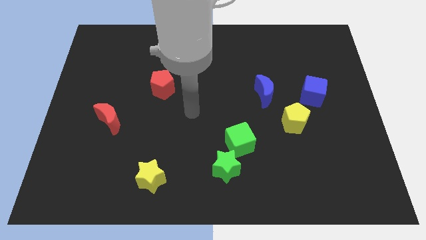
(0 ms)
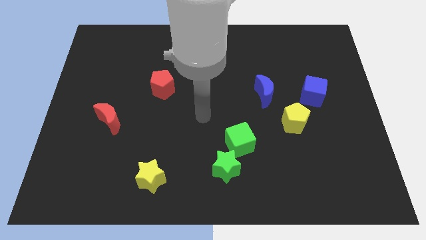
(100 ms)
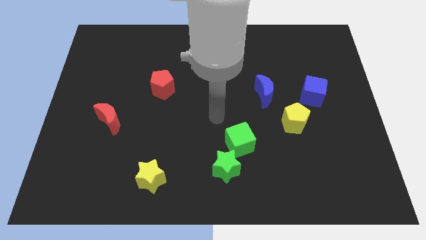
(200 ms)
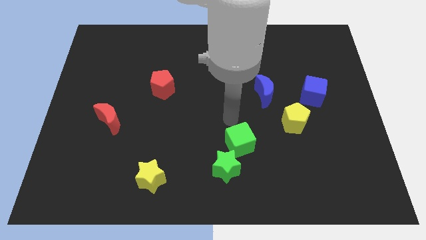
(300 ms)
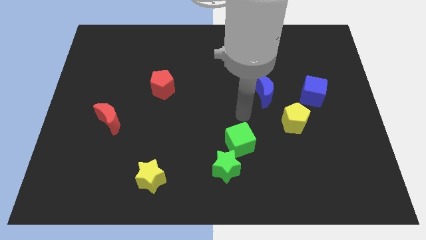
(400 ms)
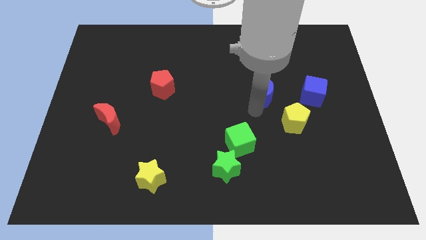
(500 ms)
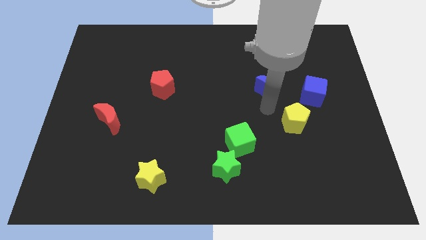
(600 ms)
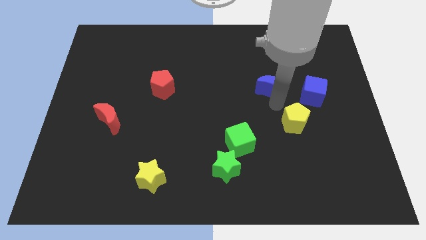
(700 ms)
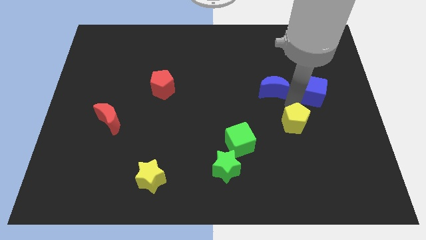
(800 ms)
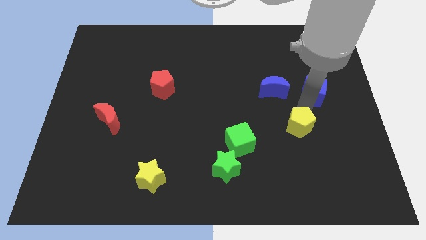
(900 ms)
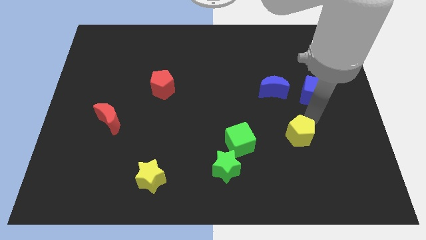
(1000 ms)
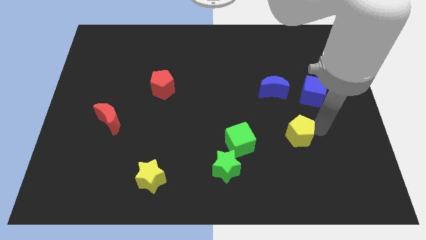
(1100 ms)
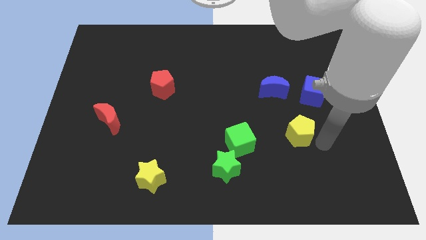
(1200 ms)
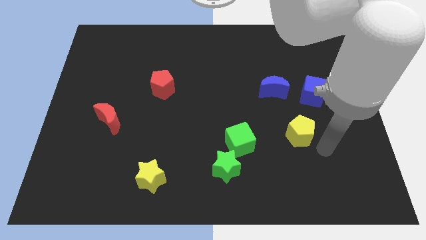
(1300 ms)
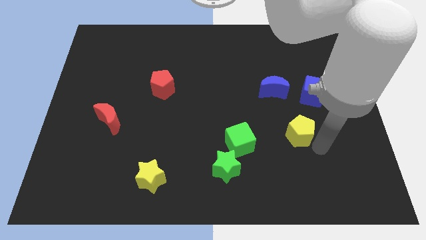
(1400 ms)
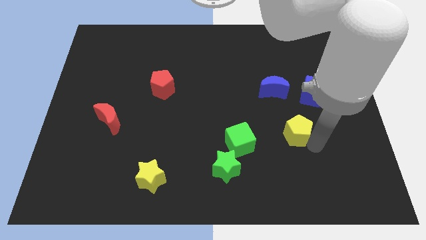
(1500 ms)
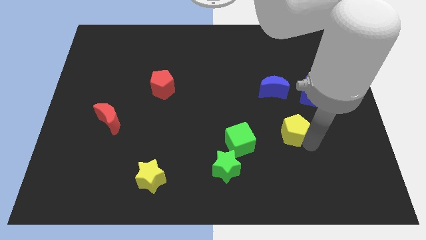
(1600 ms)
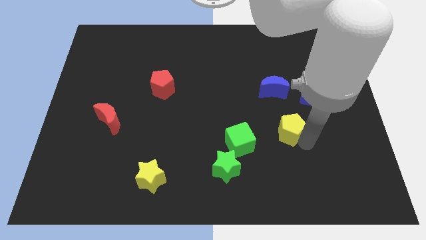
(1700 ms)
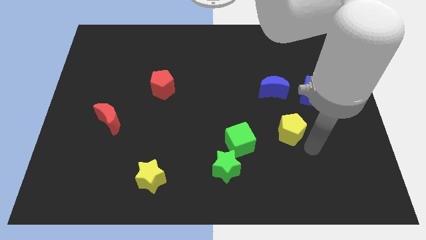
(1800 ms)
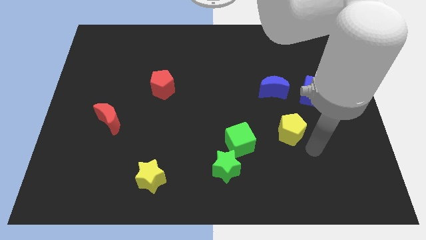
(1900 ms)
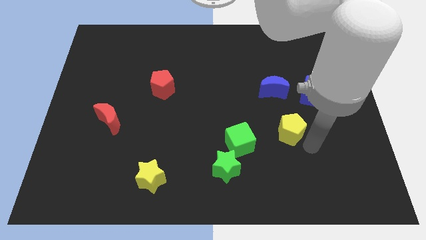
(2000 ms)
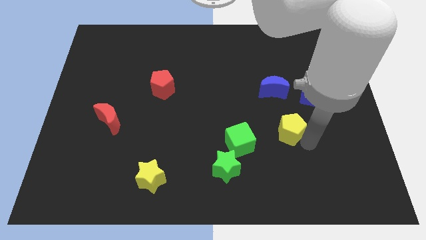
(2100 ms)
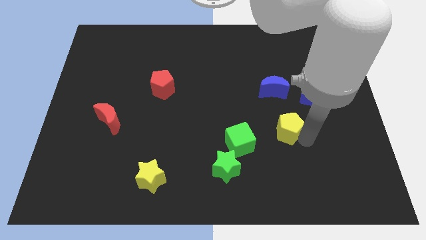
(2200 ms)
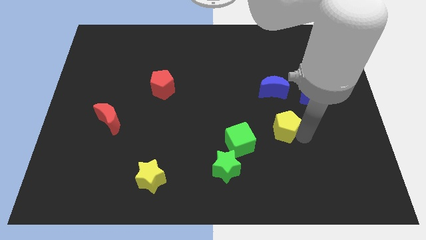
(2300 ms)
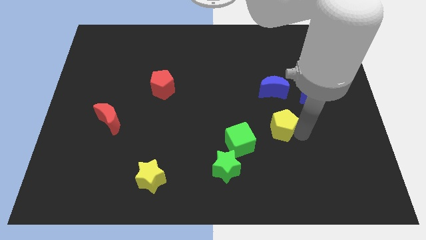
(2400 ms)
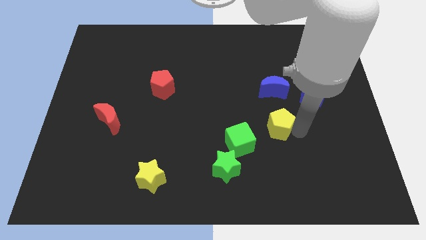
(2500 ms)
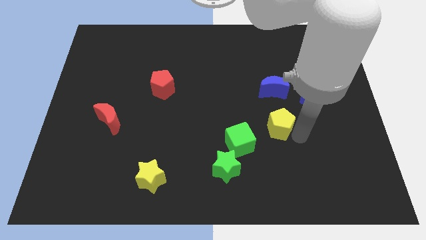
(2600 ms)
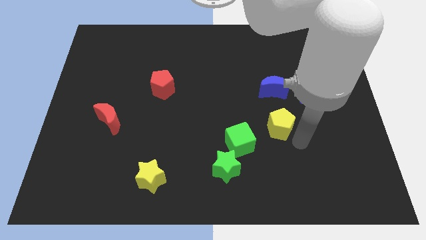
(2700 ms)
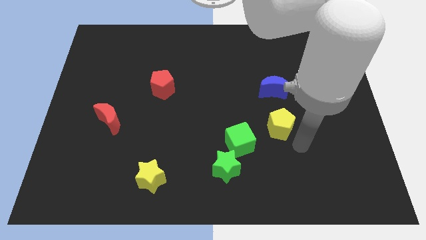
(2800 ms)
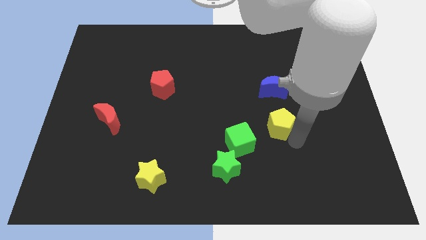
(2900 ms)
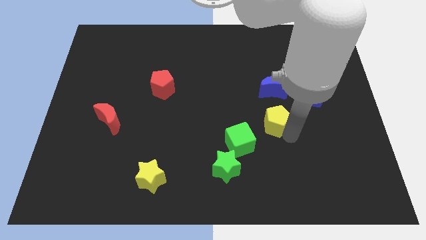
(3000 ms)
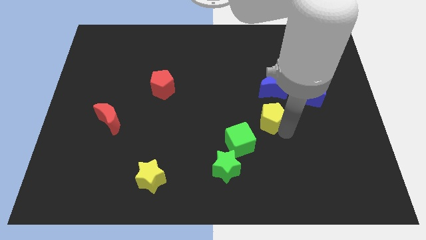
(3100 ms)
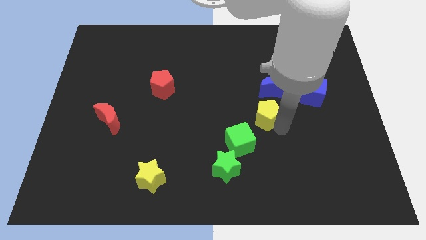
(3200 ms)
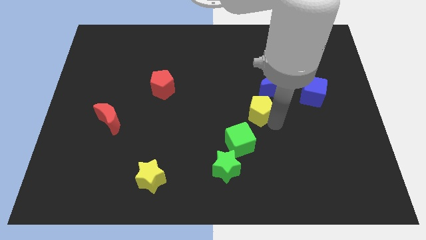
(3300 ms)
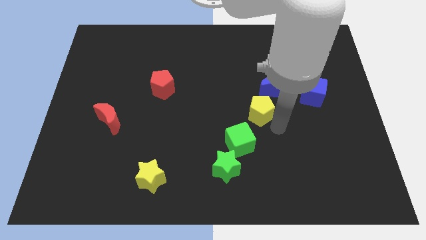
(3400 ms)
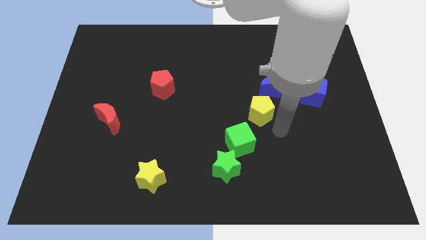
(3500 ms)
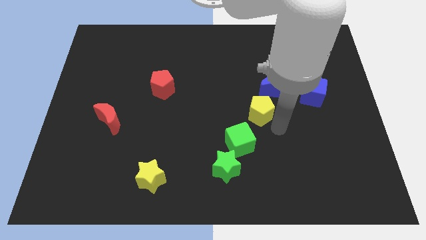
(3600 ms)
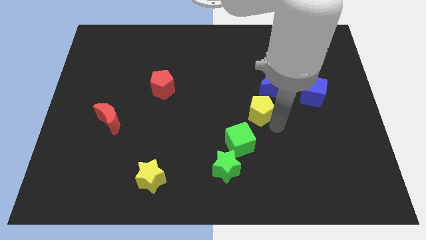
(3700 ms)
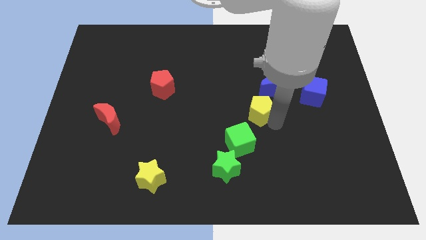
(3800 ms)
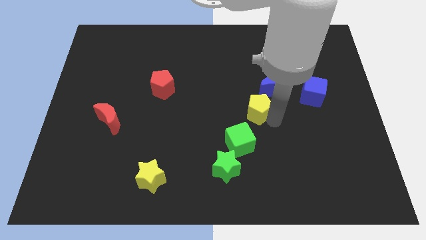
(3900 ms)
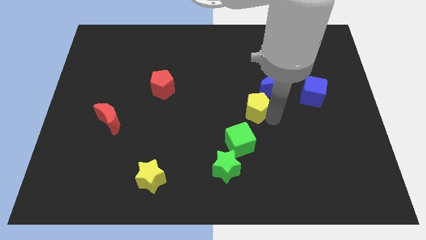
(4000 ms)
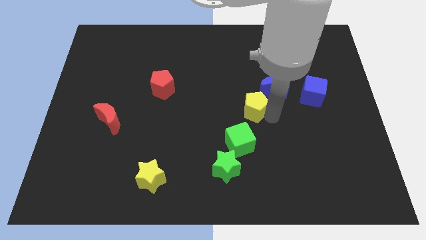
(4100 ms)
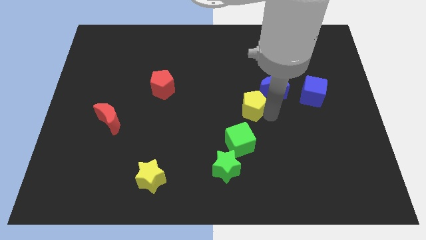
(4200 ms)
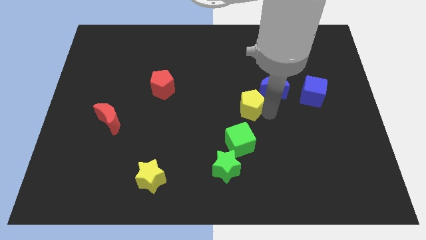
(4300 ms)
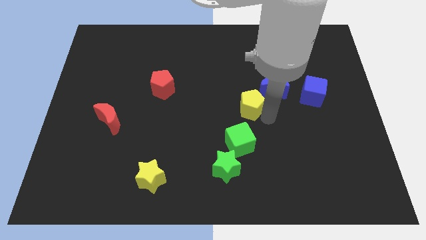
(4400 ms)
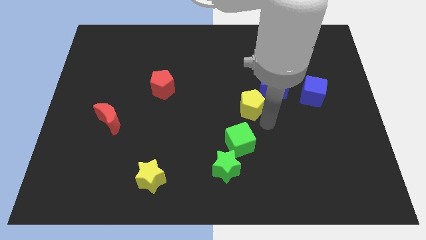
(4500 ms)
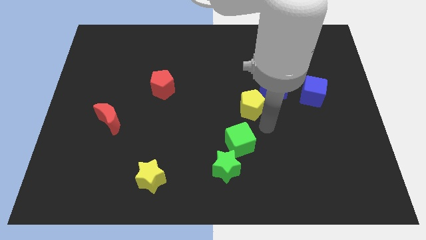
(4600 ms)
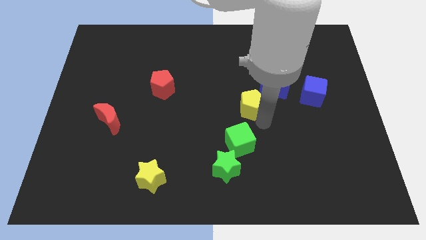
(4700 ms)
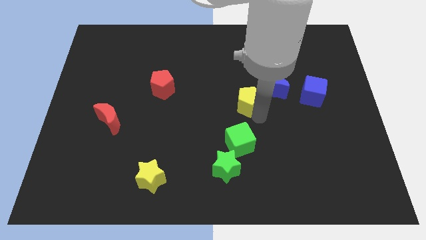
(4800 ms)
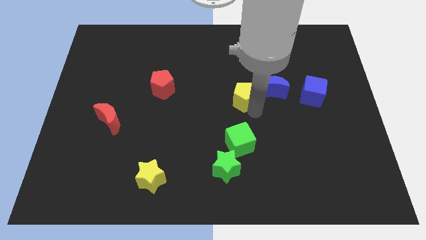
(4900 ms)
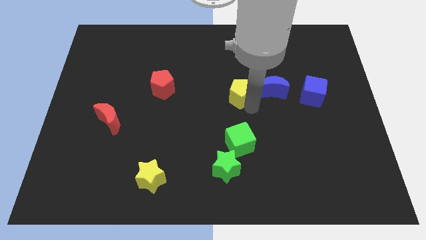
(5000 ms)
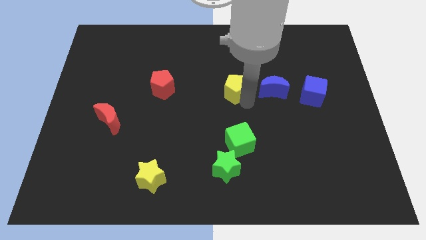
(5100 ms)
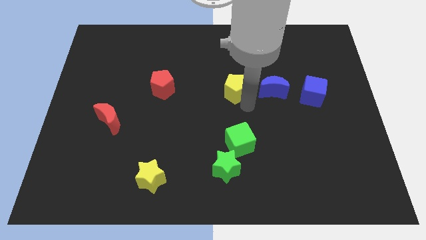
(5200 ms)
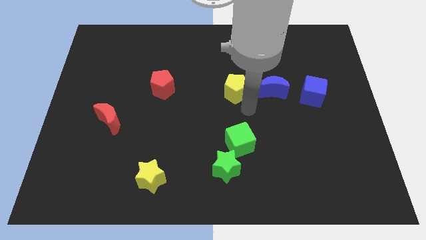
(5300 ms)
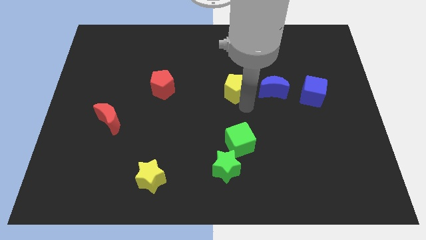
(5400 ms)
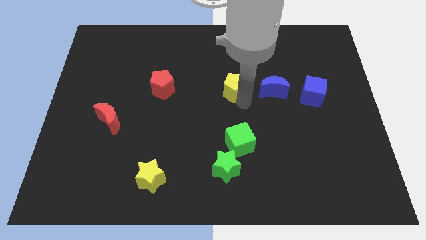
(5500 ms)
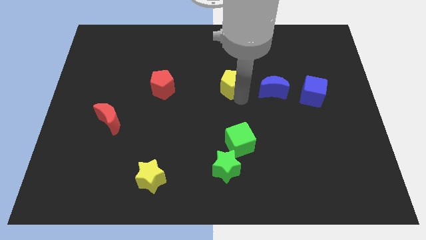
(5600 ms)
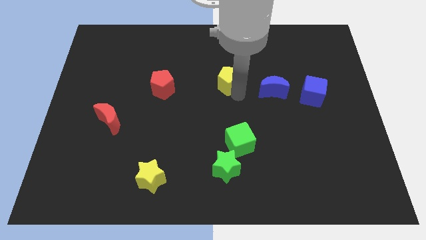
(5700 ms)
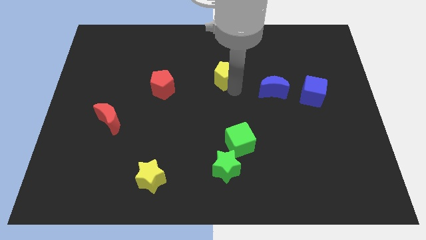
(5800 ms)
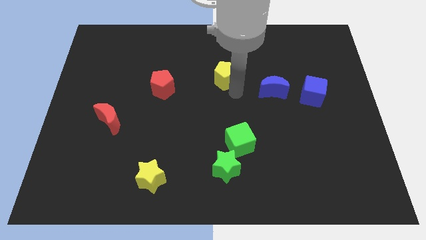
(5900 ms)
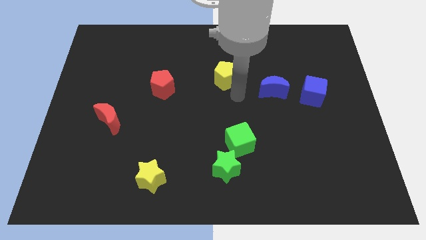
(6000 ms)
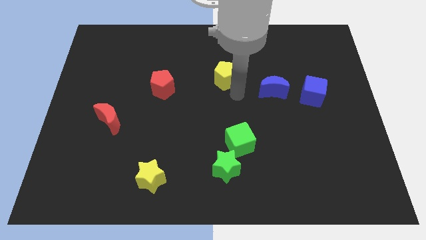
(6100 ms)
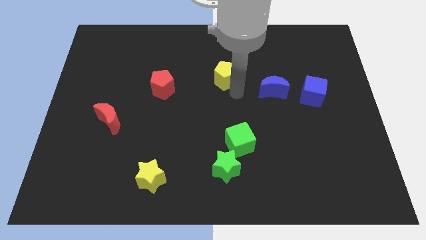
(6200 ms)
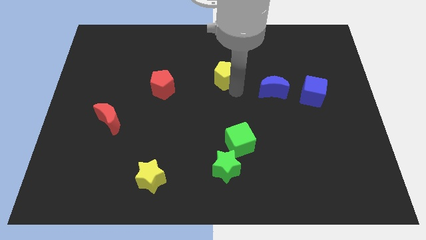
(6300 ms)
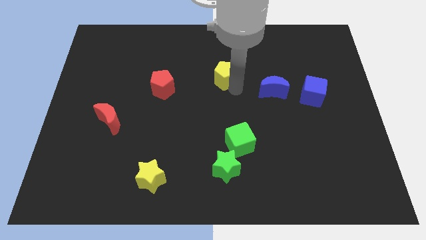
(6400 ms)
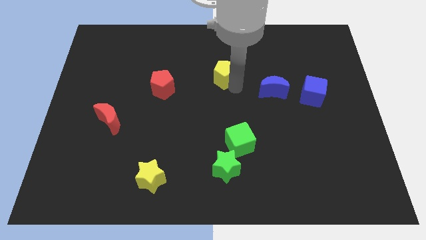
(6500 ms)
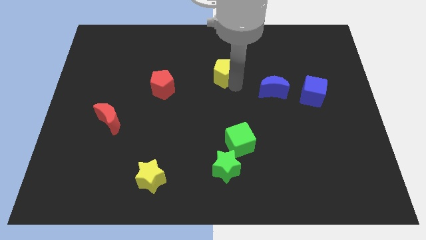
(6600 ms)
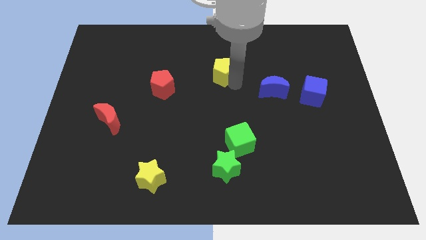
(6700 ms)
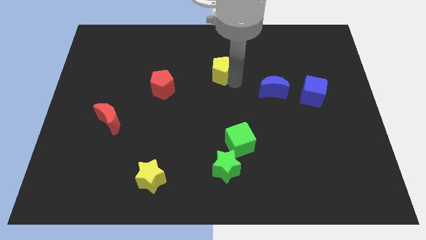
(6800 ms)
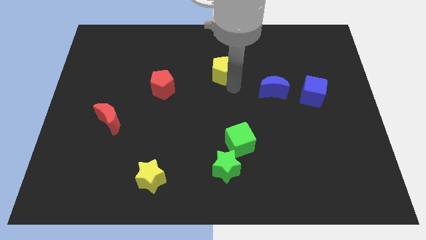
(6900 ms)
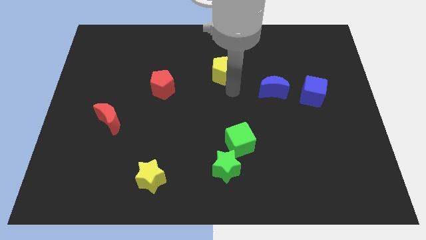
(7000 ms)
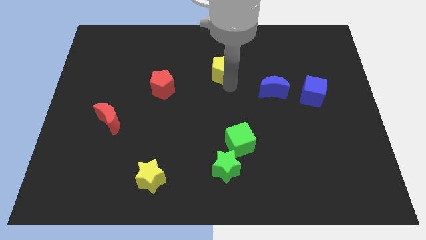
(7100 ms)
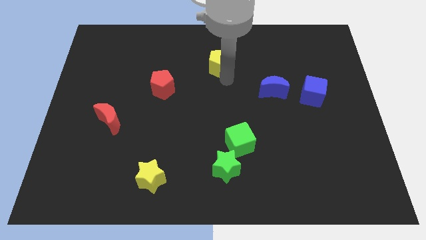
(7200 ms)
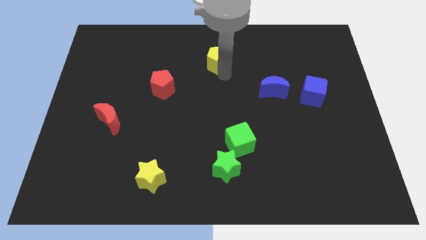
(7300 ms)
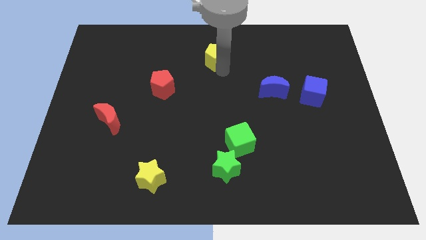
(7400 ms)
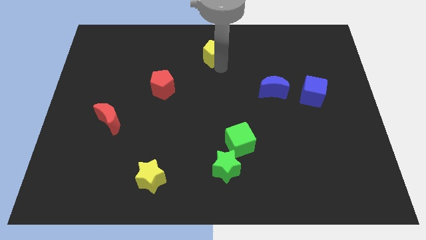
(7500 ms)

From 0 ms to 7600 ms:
put the yellow pentagon to the top side

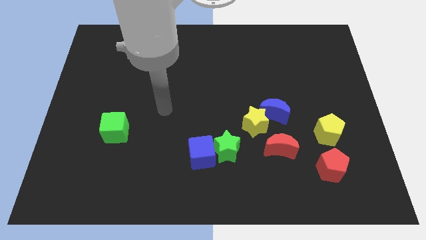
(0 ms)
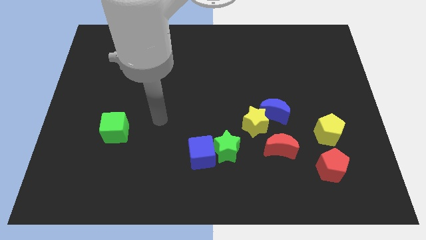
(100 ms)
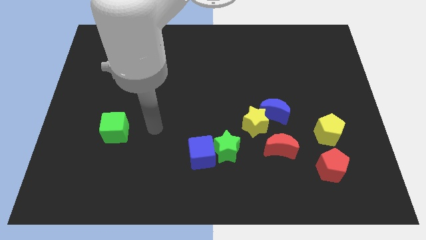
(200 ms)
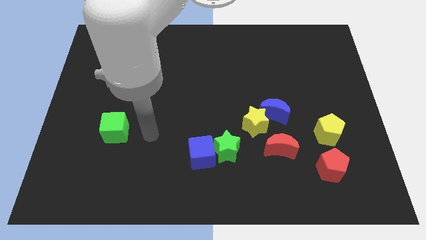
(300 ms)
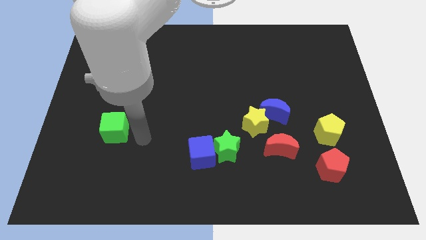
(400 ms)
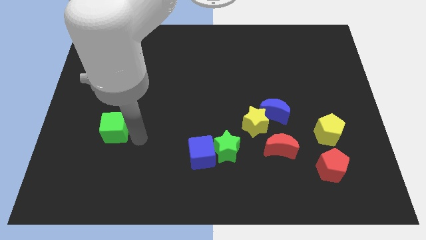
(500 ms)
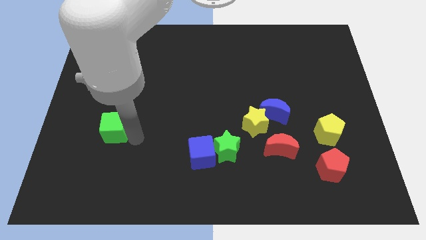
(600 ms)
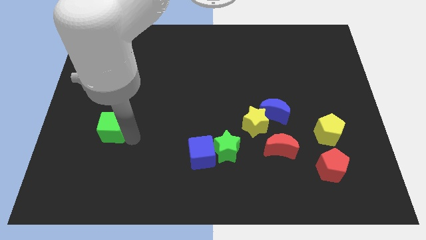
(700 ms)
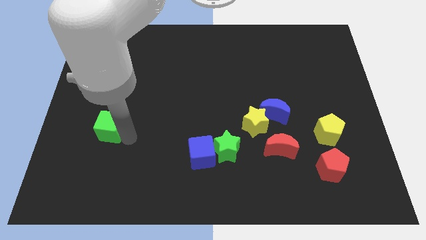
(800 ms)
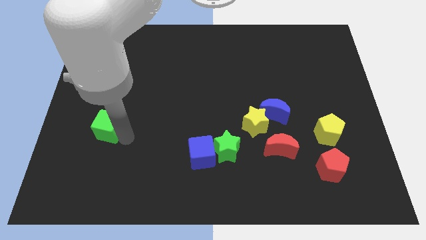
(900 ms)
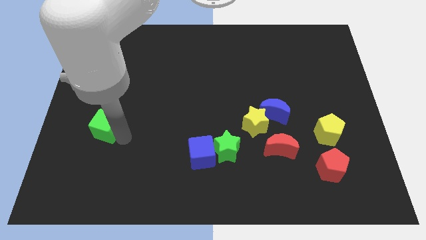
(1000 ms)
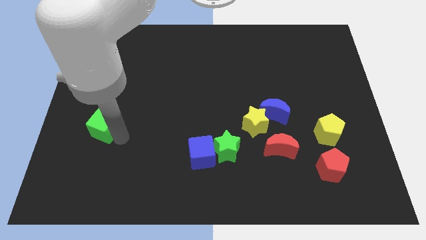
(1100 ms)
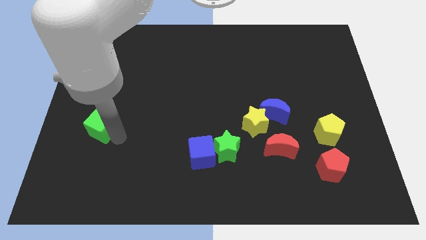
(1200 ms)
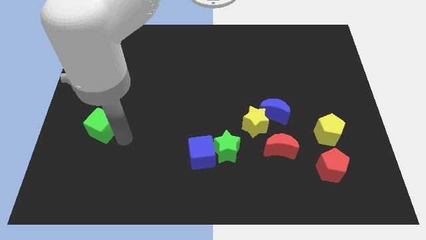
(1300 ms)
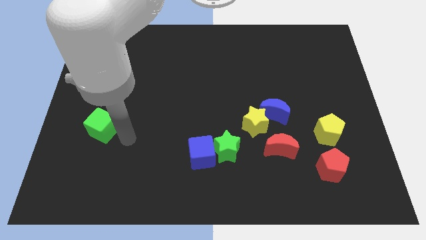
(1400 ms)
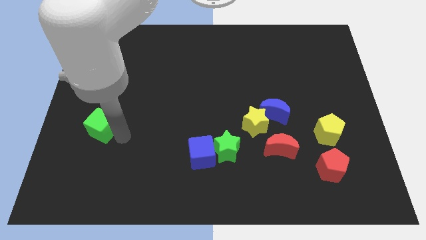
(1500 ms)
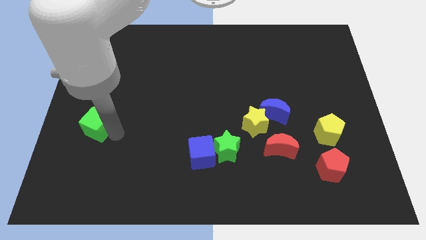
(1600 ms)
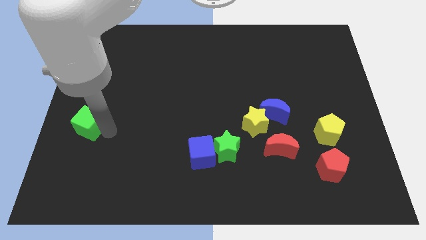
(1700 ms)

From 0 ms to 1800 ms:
put the green cube to the center left
